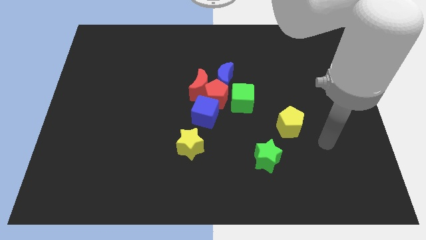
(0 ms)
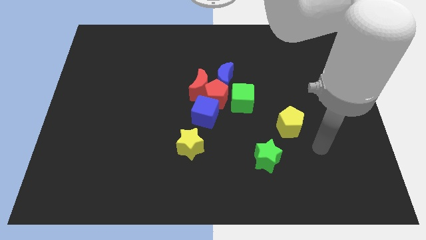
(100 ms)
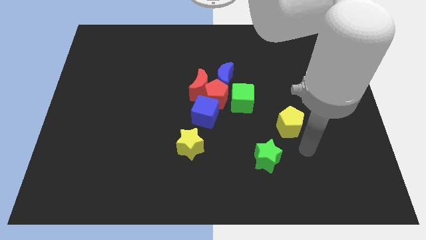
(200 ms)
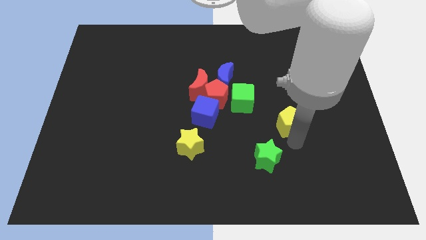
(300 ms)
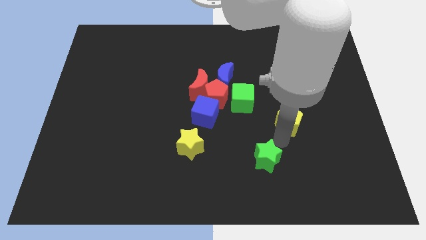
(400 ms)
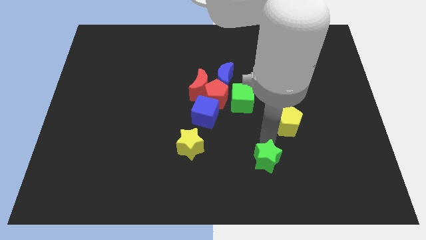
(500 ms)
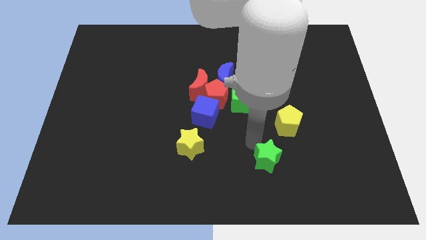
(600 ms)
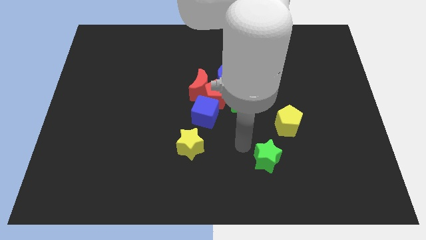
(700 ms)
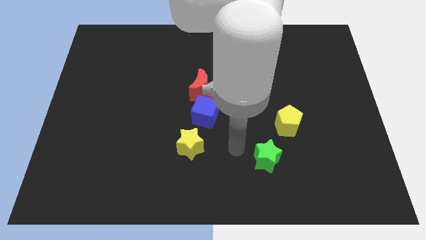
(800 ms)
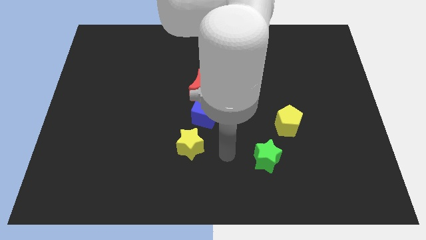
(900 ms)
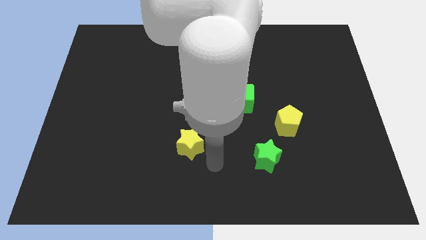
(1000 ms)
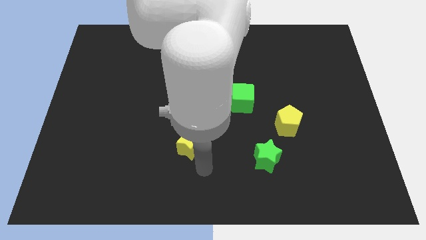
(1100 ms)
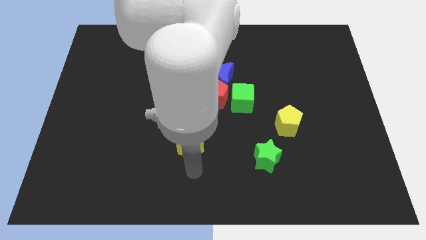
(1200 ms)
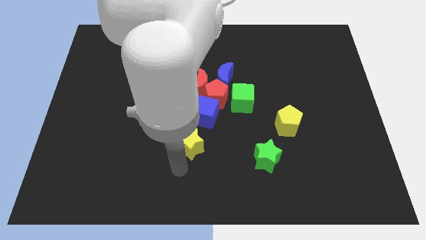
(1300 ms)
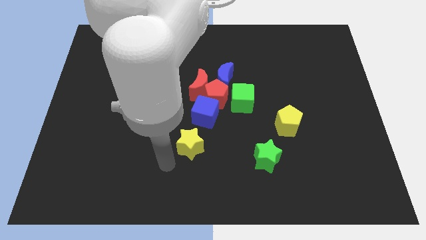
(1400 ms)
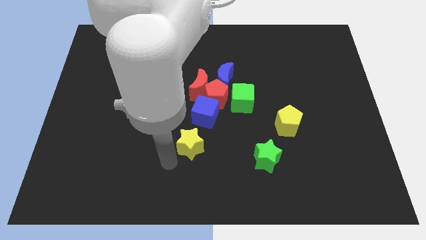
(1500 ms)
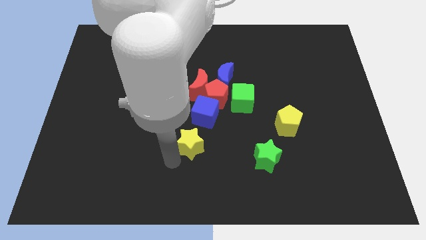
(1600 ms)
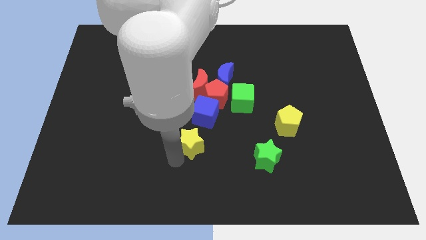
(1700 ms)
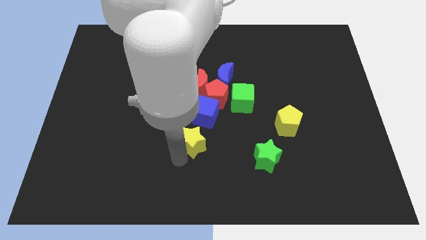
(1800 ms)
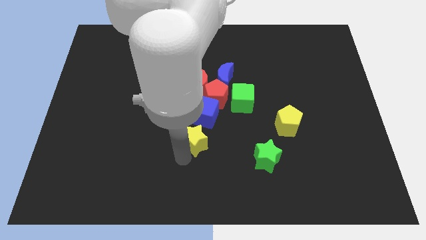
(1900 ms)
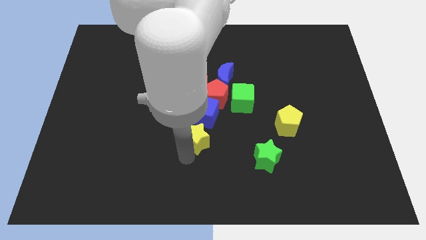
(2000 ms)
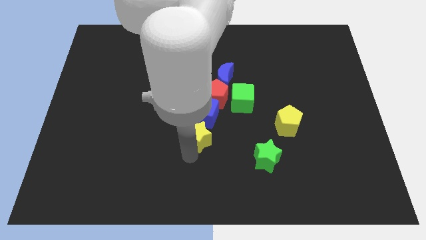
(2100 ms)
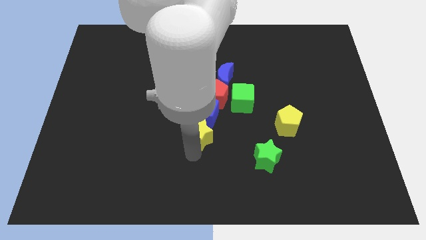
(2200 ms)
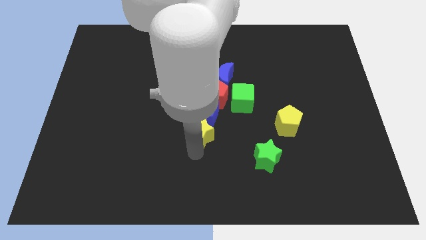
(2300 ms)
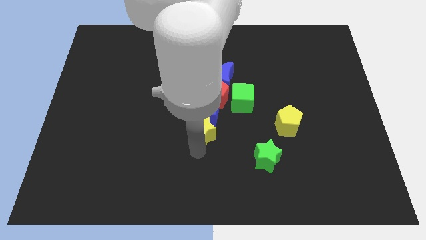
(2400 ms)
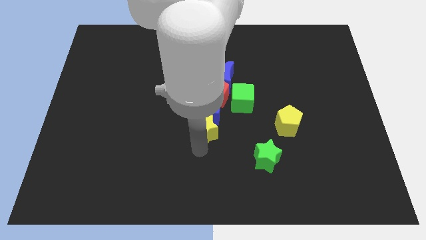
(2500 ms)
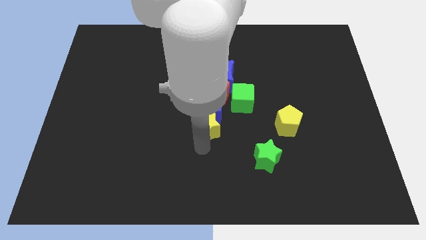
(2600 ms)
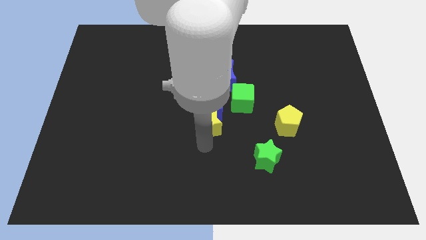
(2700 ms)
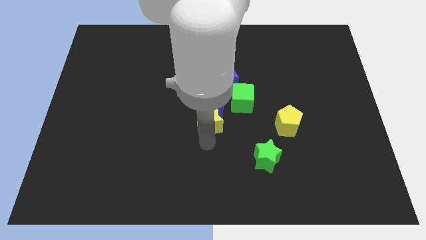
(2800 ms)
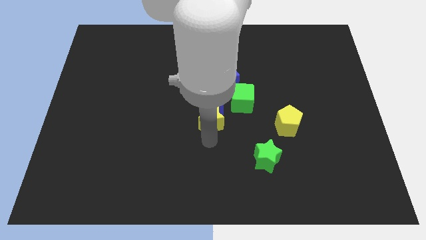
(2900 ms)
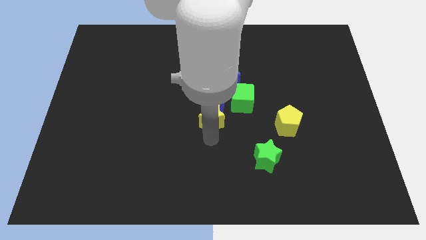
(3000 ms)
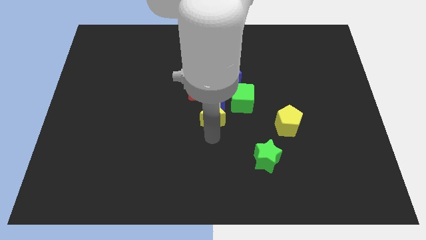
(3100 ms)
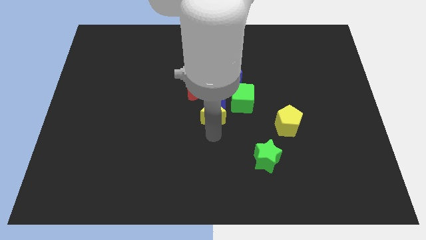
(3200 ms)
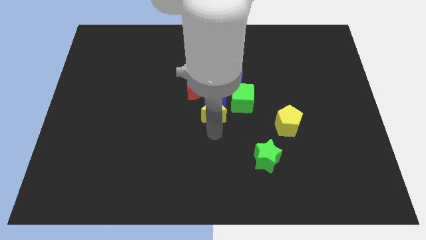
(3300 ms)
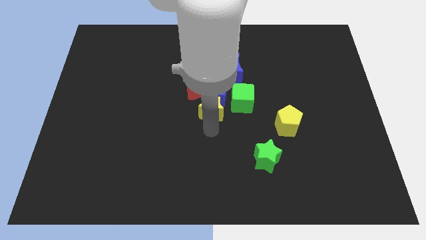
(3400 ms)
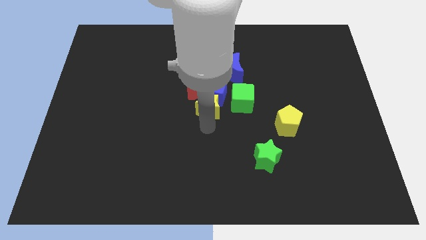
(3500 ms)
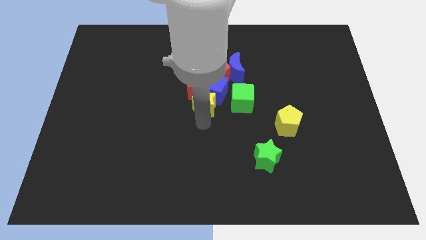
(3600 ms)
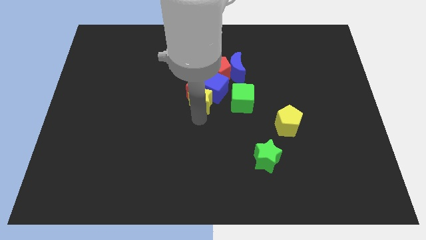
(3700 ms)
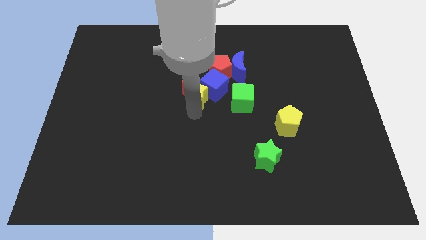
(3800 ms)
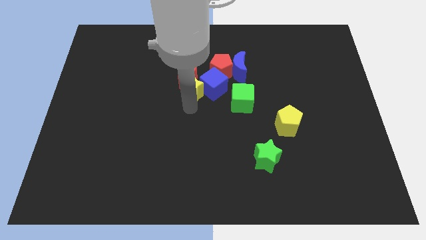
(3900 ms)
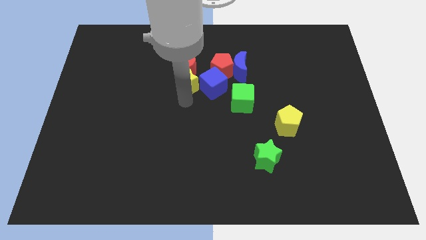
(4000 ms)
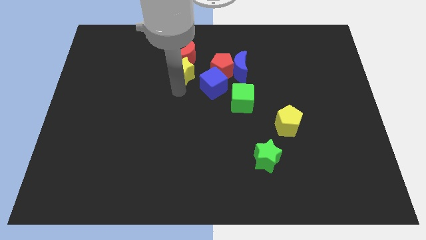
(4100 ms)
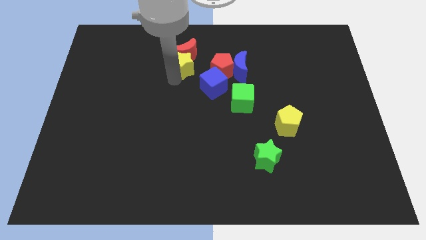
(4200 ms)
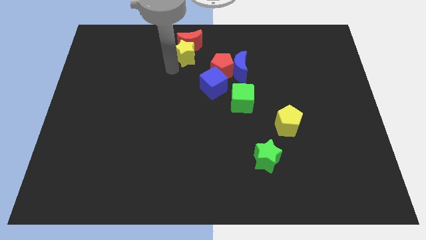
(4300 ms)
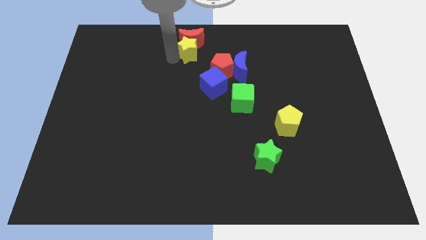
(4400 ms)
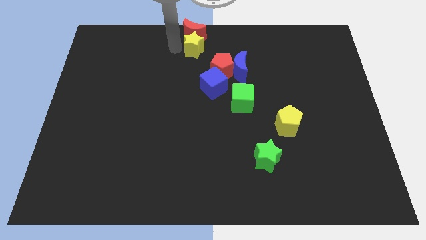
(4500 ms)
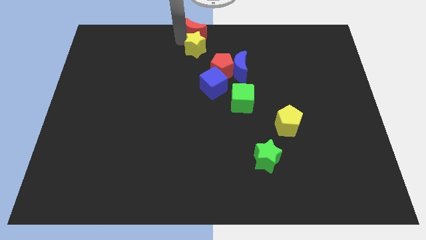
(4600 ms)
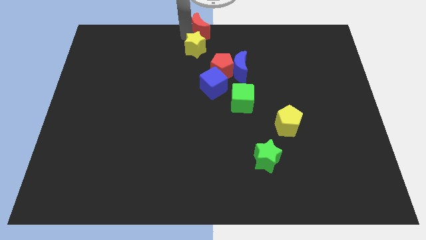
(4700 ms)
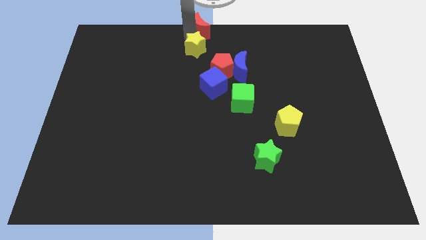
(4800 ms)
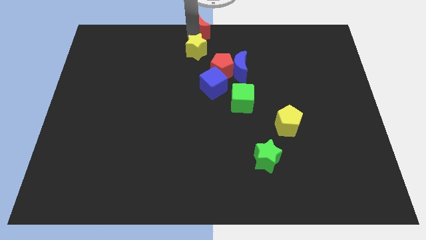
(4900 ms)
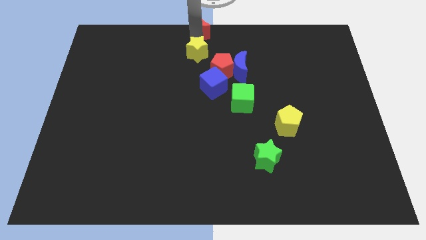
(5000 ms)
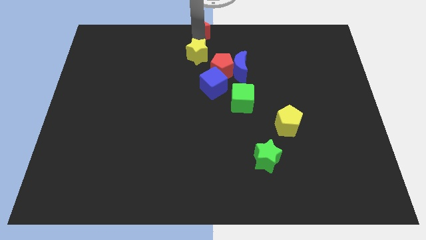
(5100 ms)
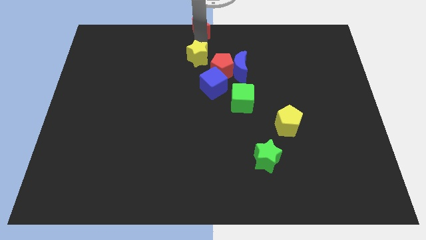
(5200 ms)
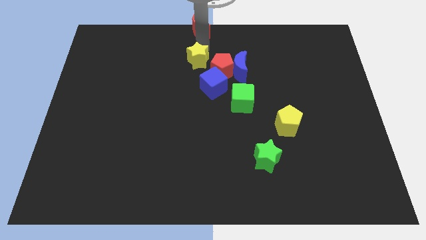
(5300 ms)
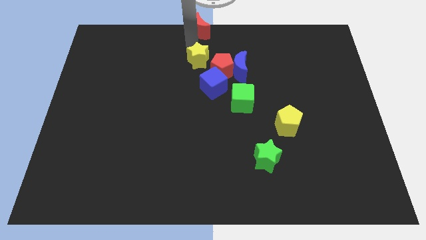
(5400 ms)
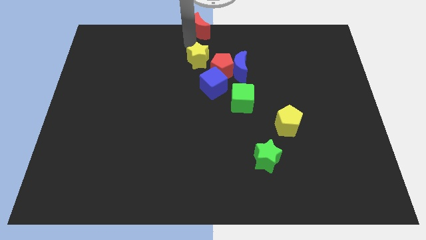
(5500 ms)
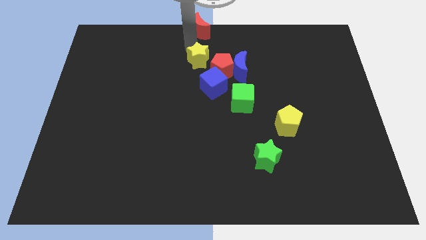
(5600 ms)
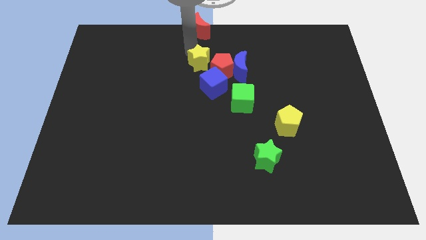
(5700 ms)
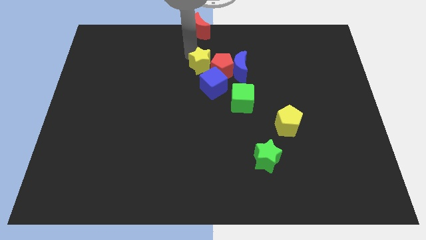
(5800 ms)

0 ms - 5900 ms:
slide the yellow star close to the red pentagon
